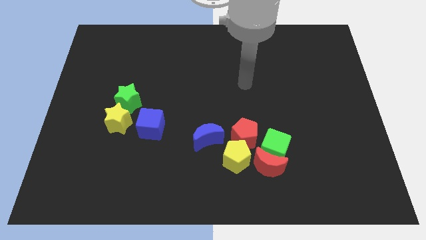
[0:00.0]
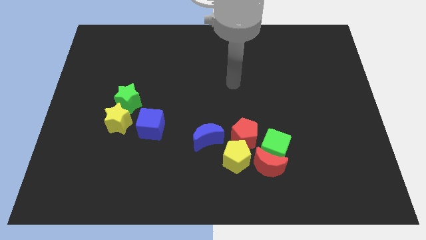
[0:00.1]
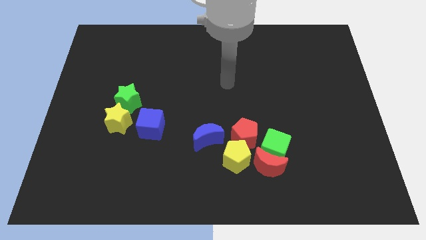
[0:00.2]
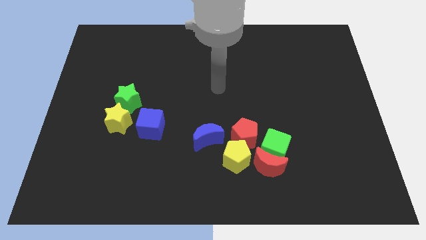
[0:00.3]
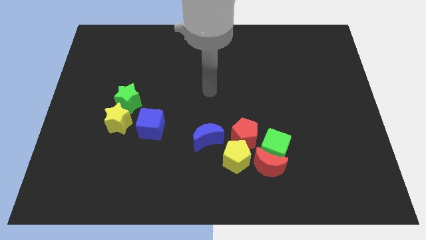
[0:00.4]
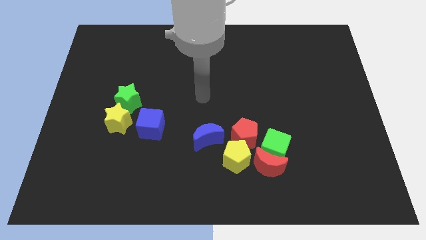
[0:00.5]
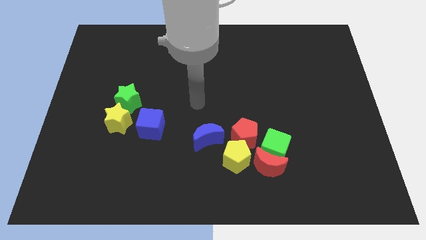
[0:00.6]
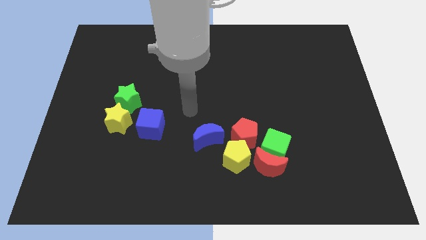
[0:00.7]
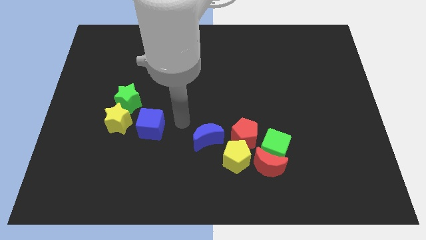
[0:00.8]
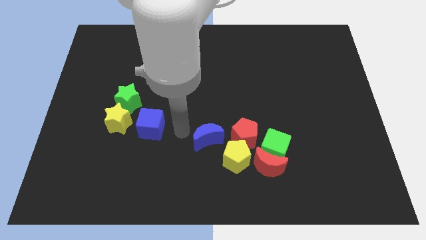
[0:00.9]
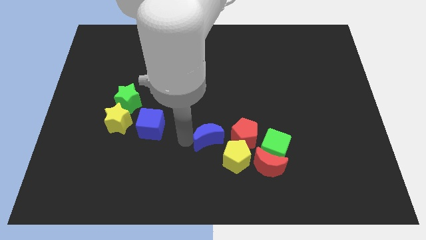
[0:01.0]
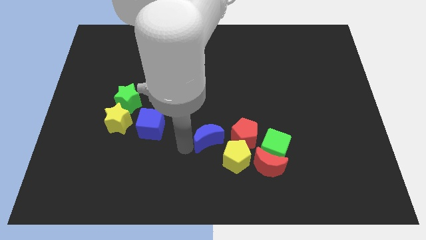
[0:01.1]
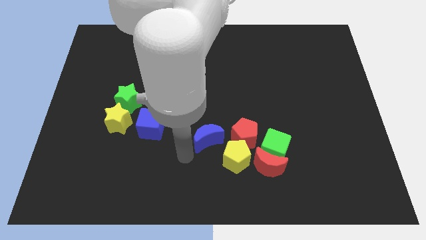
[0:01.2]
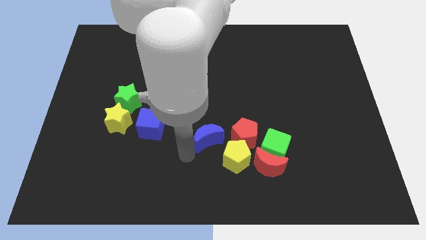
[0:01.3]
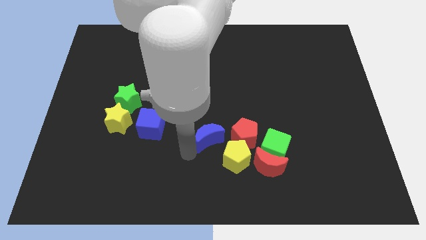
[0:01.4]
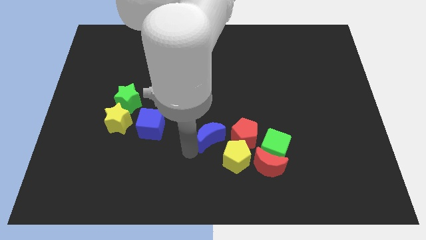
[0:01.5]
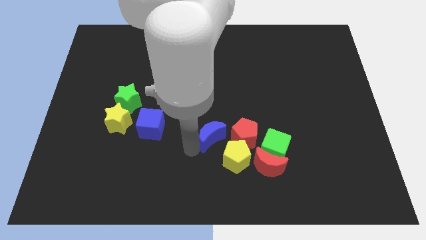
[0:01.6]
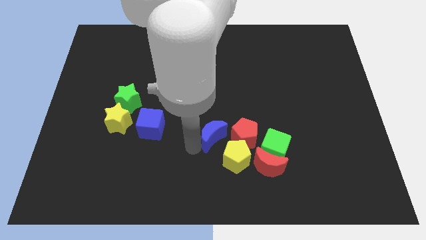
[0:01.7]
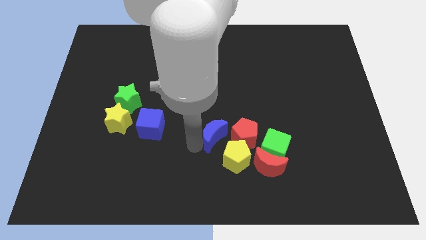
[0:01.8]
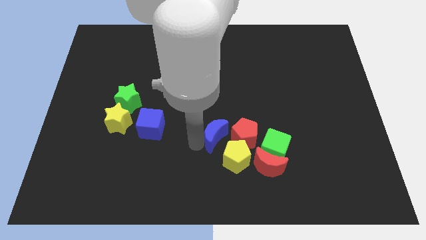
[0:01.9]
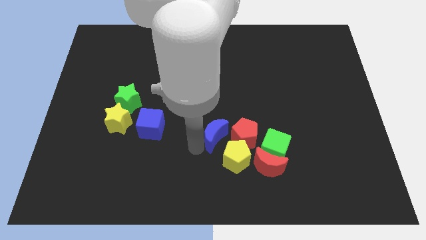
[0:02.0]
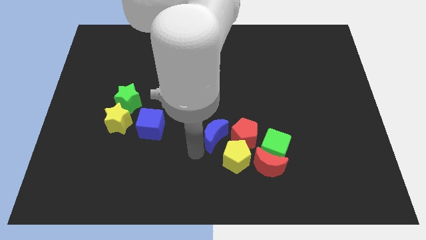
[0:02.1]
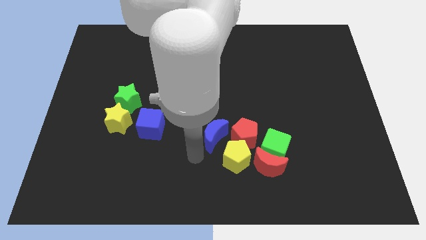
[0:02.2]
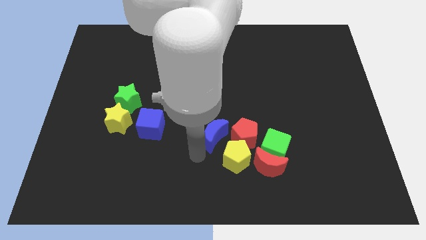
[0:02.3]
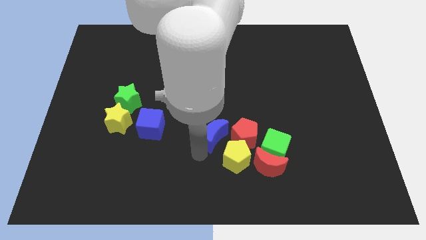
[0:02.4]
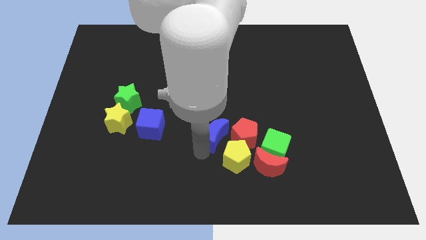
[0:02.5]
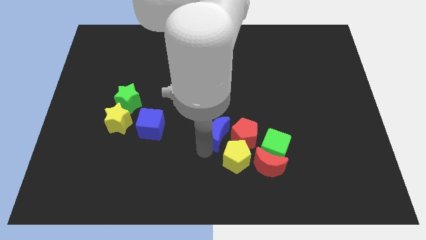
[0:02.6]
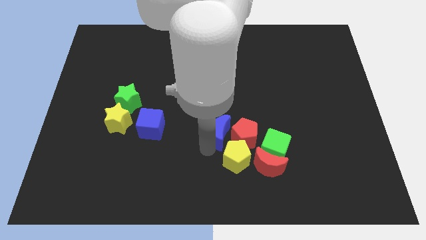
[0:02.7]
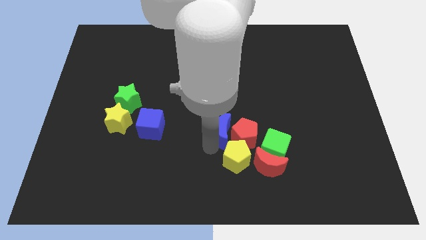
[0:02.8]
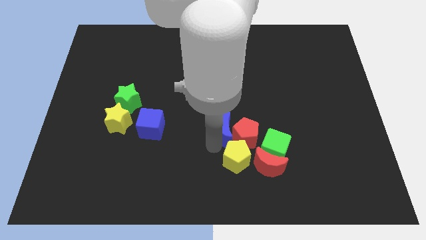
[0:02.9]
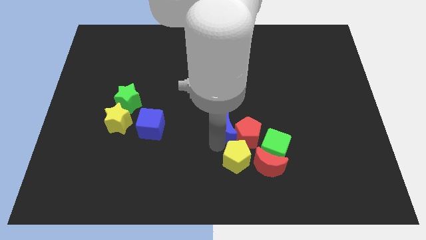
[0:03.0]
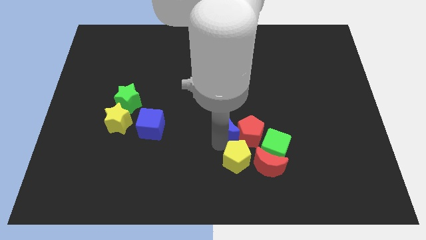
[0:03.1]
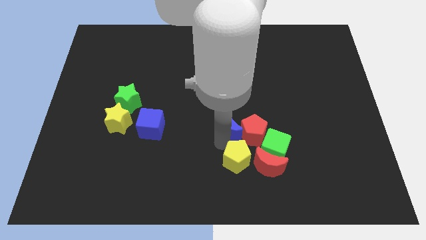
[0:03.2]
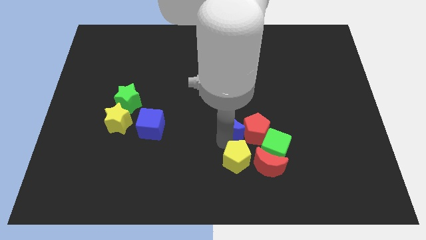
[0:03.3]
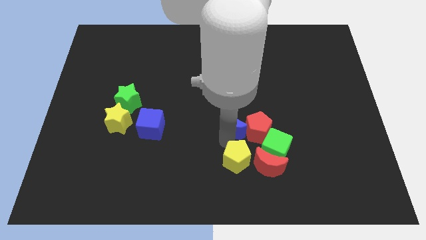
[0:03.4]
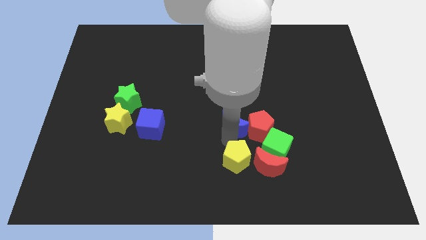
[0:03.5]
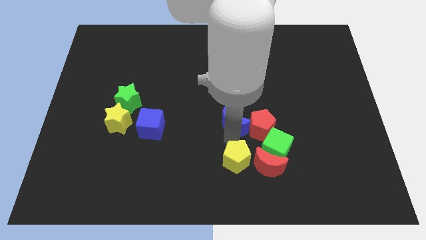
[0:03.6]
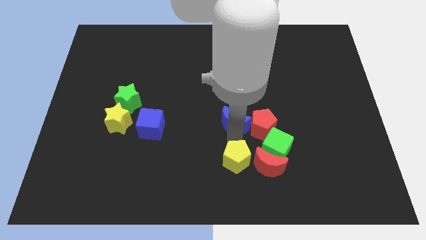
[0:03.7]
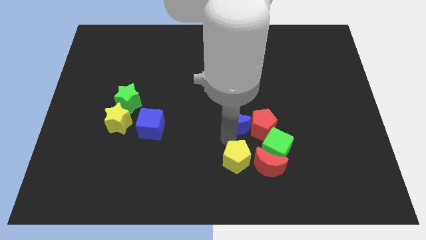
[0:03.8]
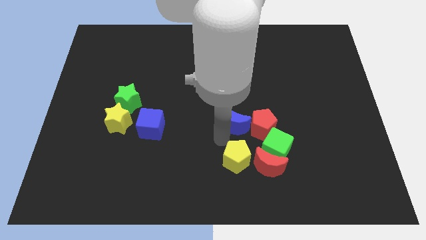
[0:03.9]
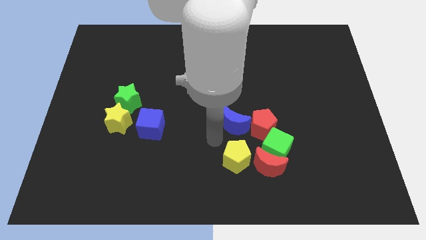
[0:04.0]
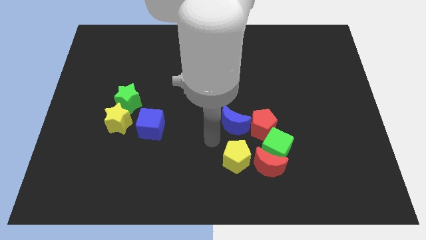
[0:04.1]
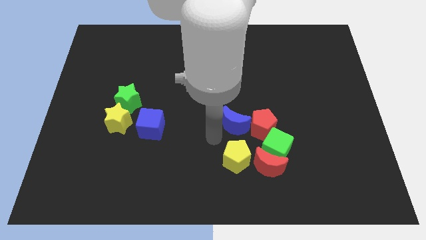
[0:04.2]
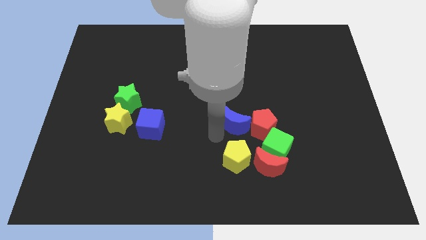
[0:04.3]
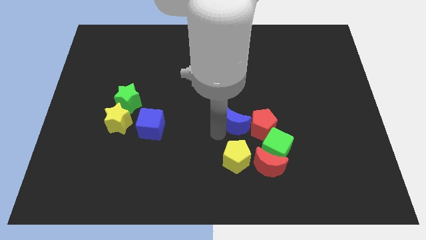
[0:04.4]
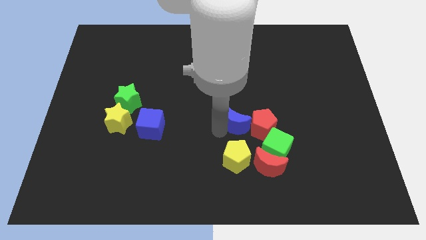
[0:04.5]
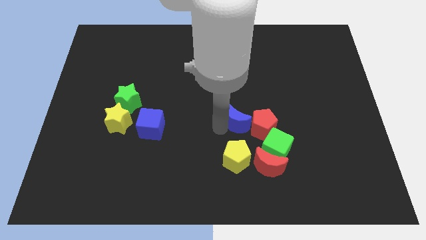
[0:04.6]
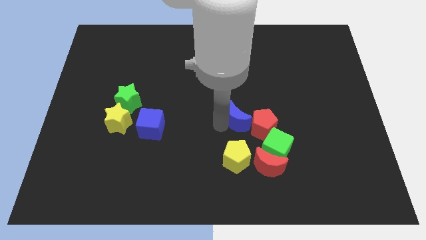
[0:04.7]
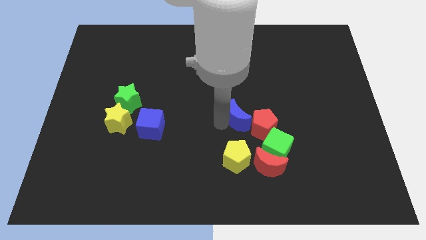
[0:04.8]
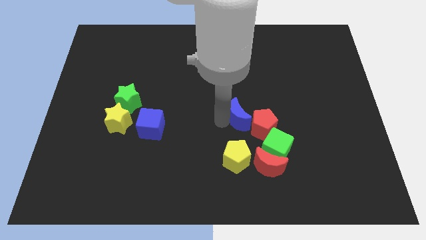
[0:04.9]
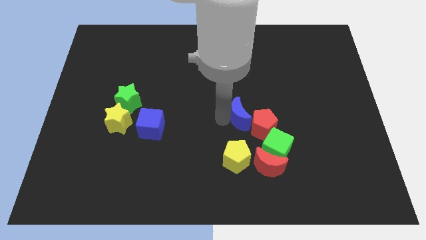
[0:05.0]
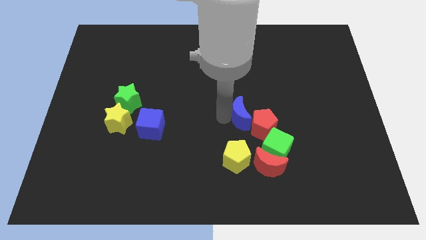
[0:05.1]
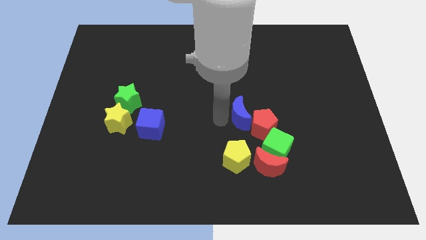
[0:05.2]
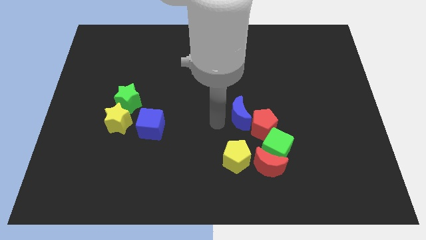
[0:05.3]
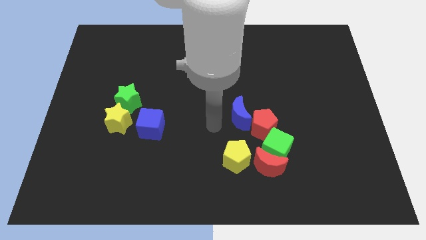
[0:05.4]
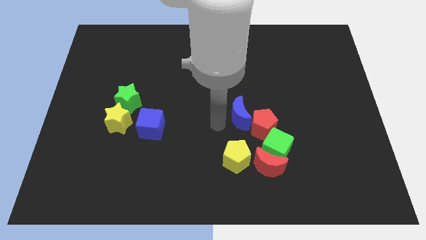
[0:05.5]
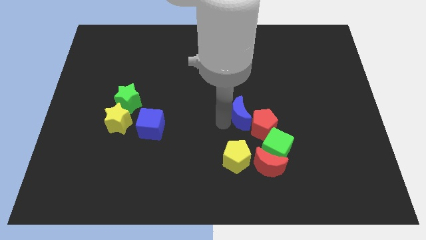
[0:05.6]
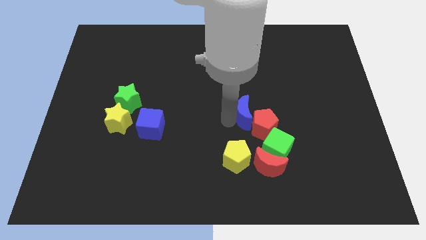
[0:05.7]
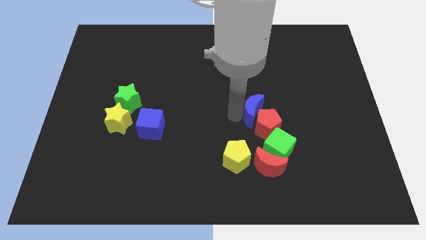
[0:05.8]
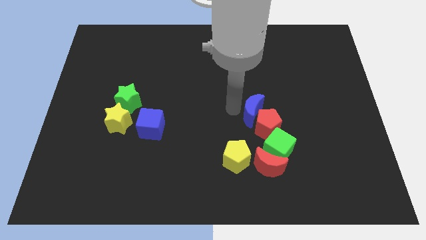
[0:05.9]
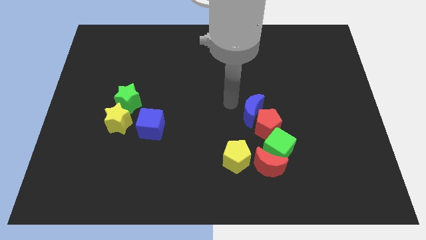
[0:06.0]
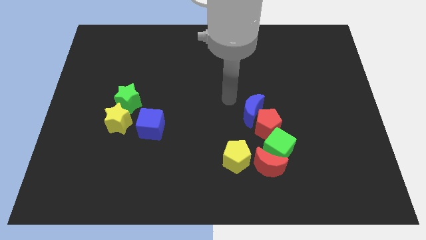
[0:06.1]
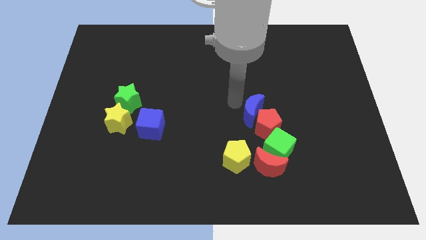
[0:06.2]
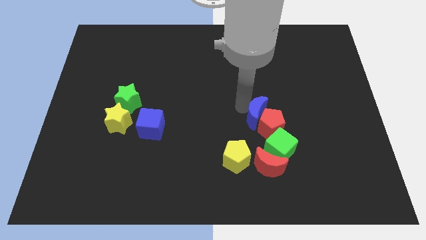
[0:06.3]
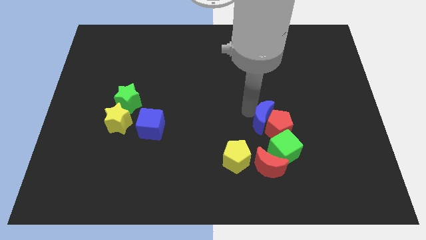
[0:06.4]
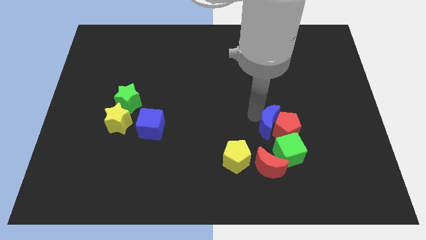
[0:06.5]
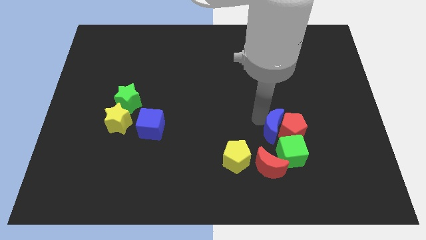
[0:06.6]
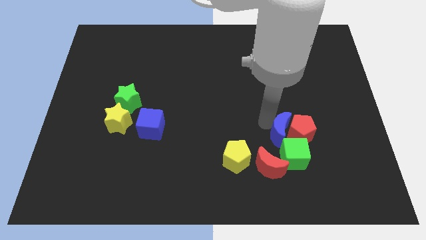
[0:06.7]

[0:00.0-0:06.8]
push the blue moon diagonally up and to the right of the red moon

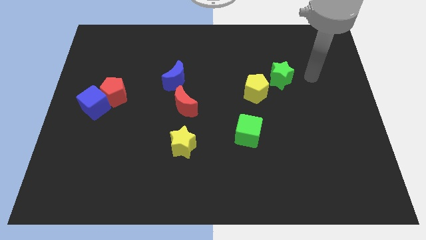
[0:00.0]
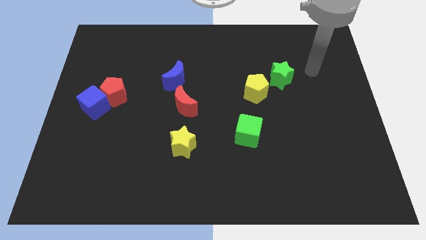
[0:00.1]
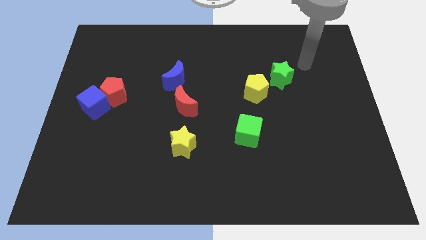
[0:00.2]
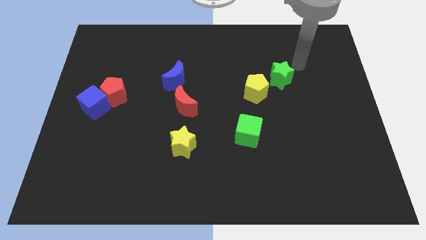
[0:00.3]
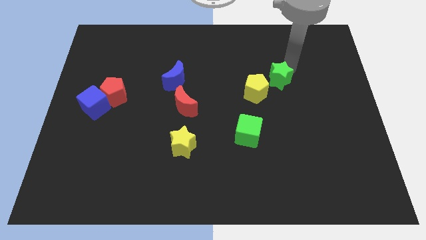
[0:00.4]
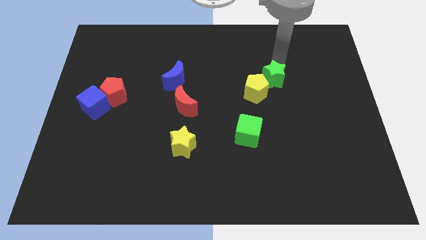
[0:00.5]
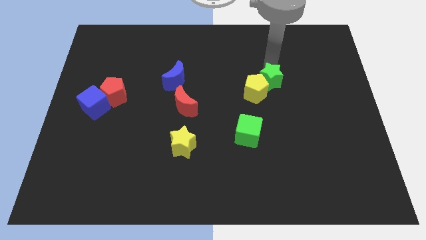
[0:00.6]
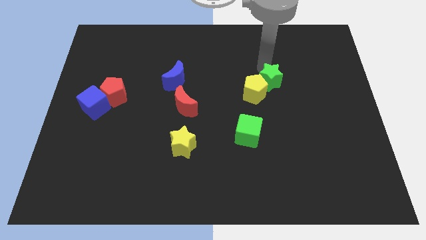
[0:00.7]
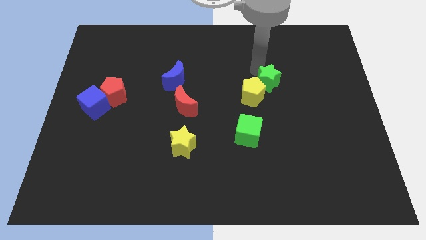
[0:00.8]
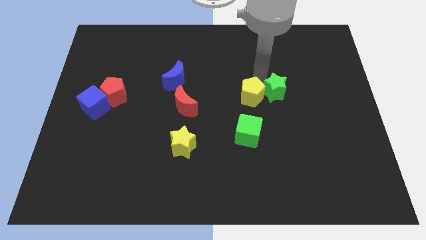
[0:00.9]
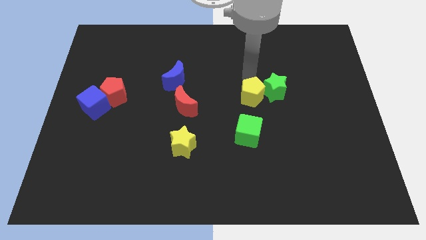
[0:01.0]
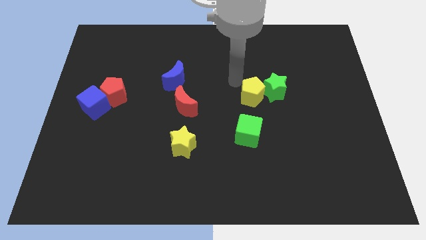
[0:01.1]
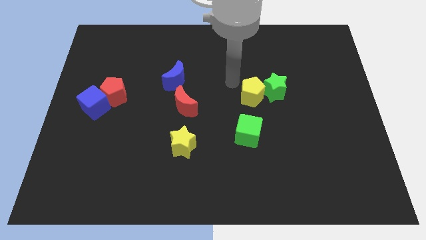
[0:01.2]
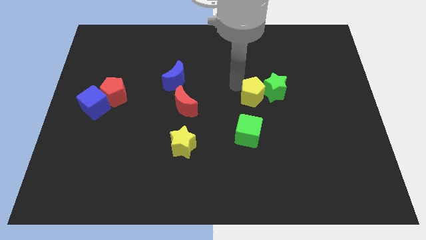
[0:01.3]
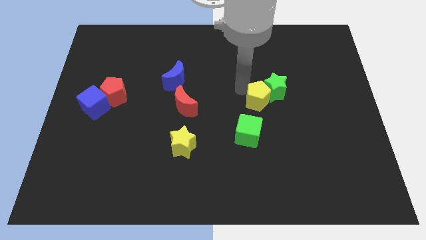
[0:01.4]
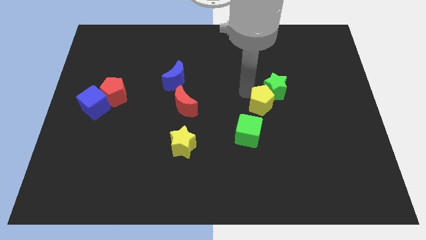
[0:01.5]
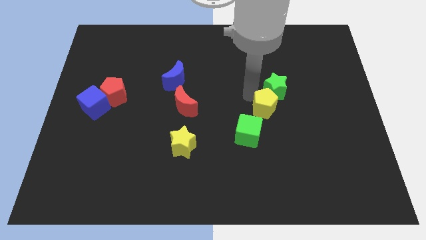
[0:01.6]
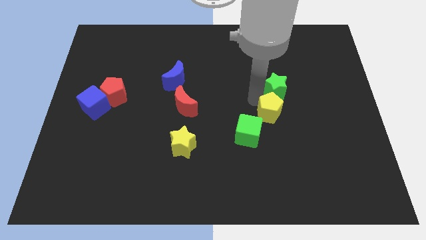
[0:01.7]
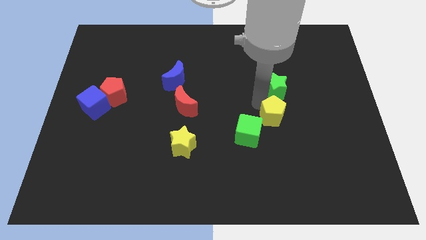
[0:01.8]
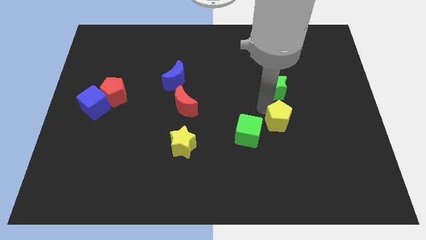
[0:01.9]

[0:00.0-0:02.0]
put the yellow pentagon right of the green cube
